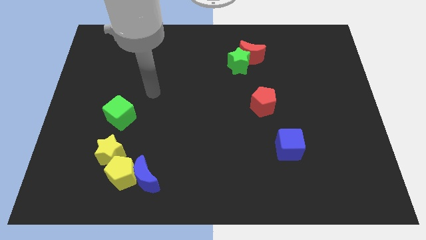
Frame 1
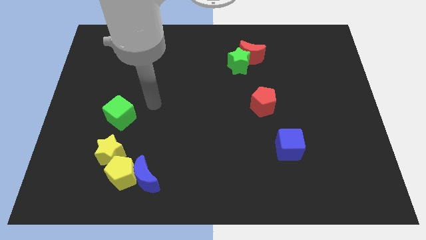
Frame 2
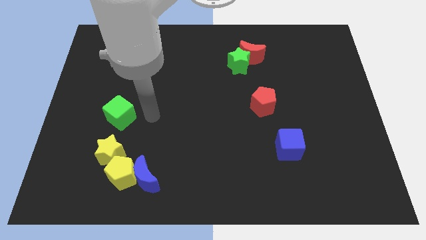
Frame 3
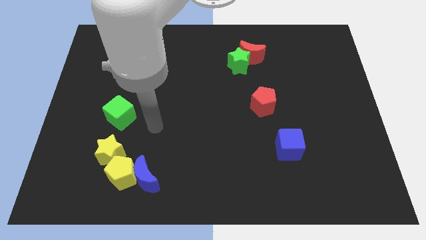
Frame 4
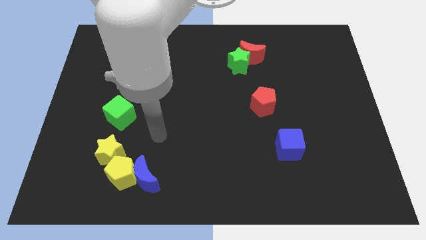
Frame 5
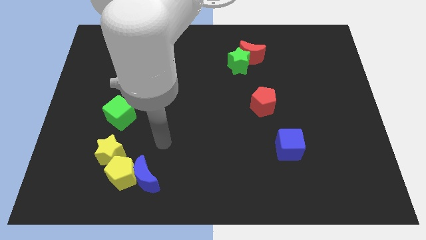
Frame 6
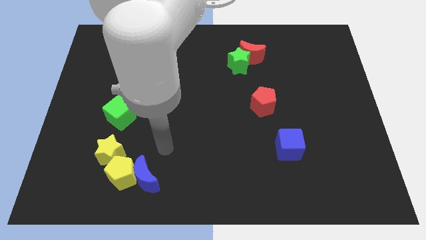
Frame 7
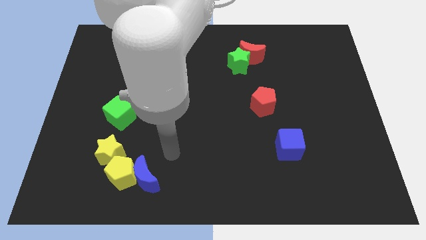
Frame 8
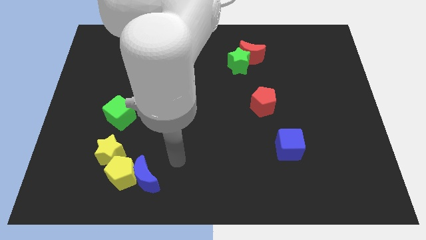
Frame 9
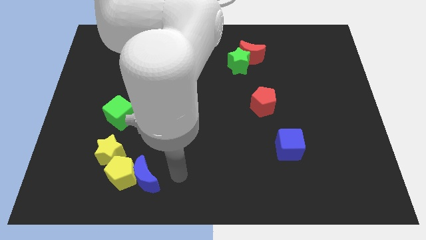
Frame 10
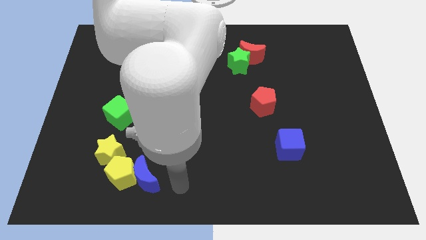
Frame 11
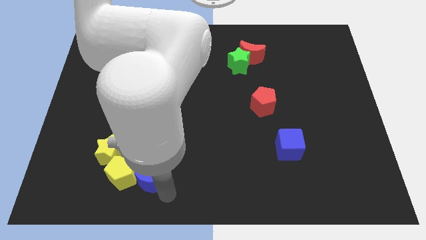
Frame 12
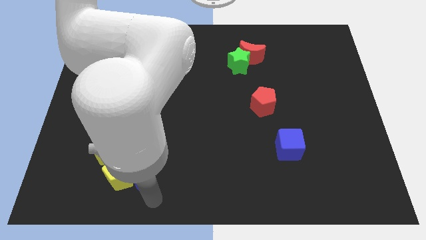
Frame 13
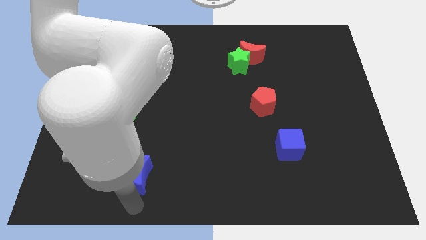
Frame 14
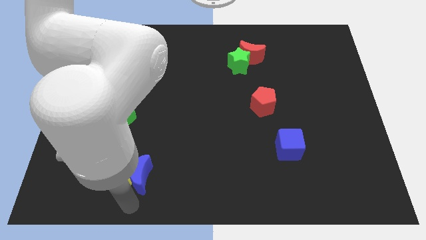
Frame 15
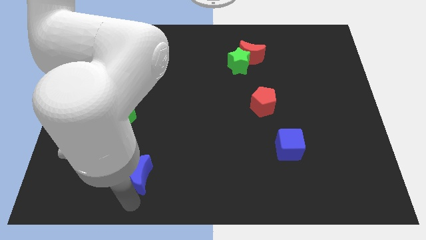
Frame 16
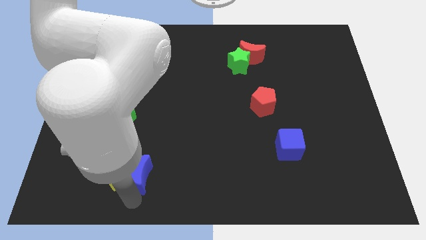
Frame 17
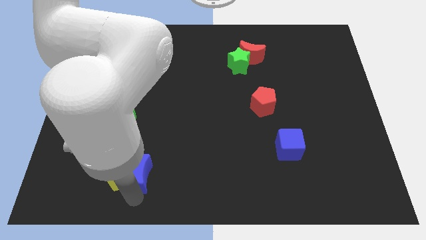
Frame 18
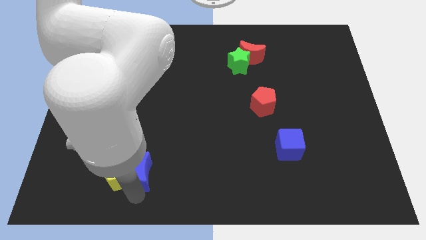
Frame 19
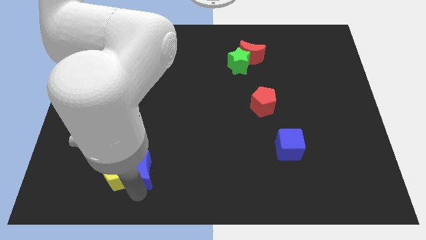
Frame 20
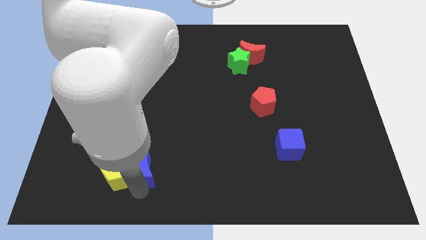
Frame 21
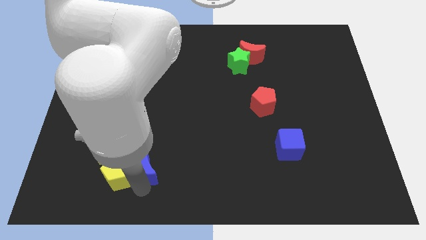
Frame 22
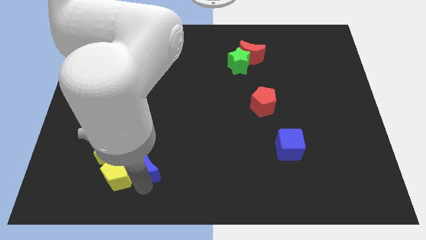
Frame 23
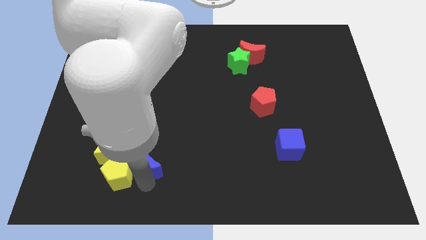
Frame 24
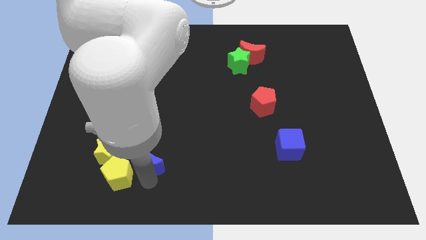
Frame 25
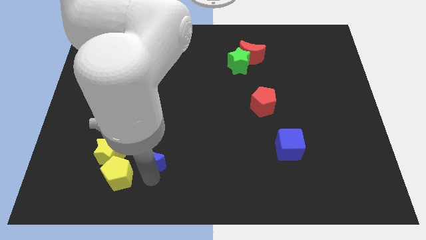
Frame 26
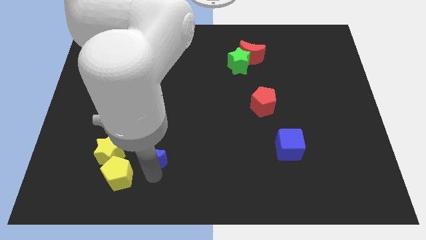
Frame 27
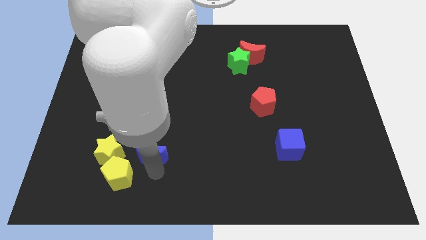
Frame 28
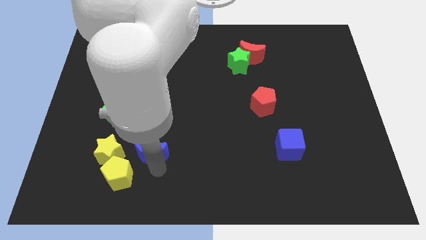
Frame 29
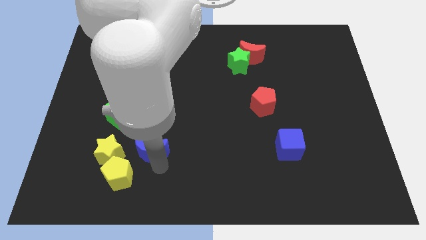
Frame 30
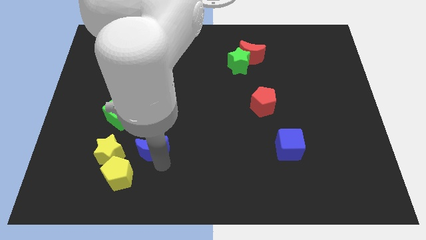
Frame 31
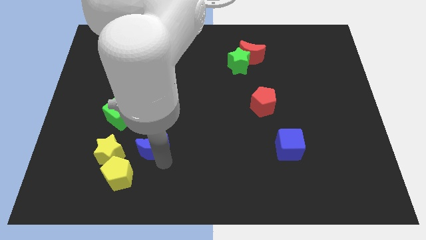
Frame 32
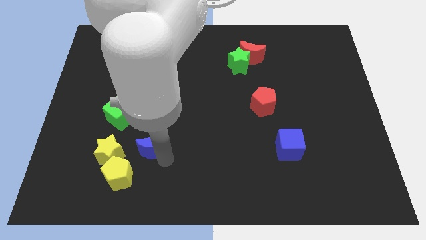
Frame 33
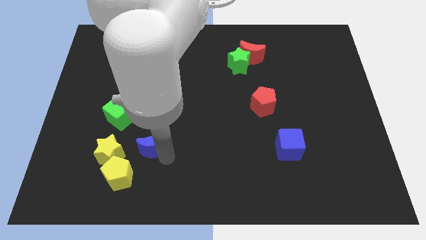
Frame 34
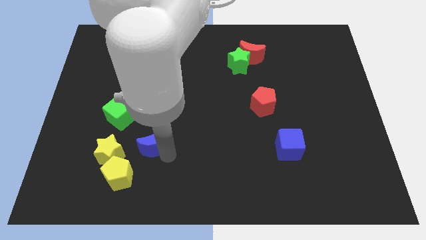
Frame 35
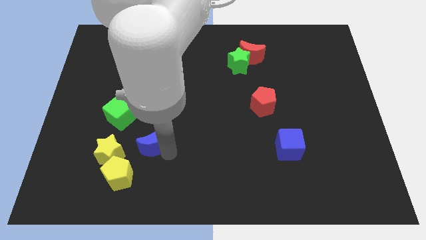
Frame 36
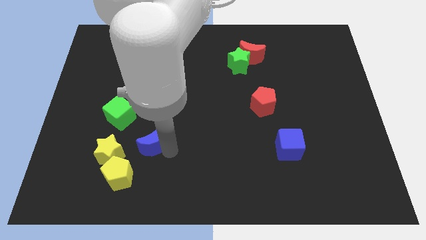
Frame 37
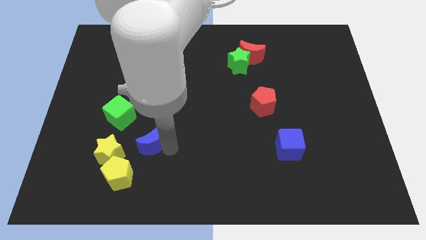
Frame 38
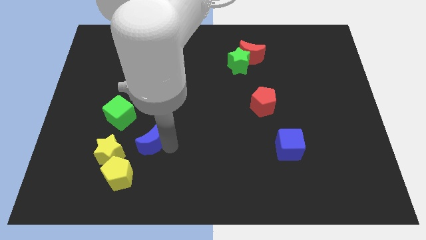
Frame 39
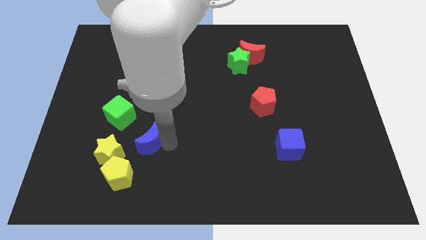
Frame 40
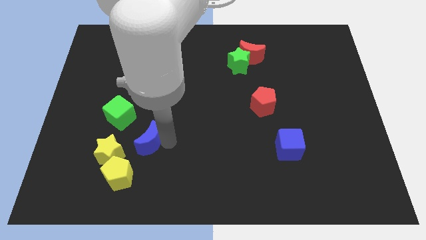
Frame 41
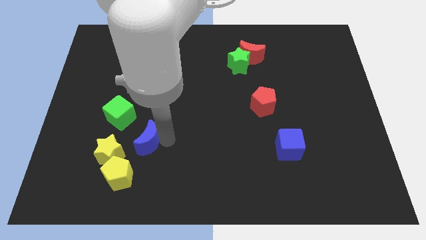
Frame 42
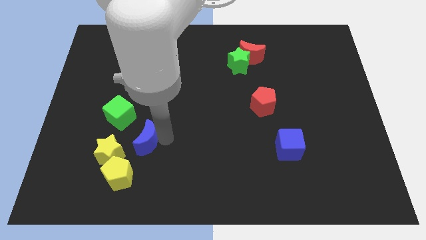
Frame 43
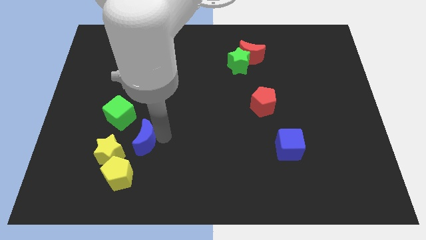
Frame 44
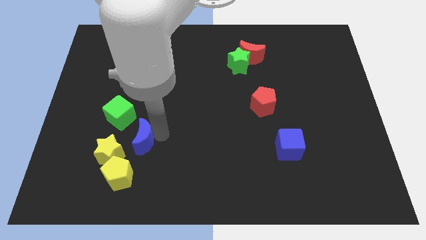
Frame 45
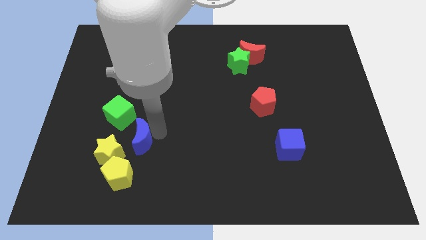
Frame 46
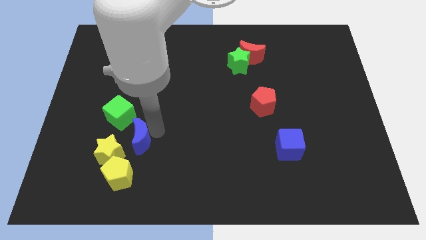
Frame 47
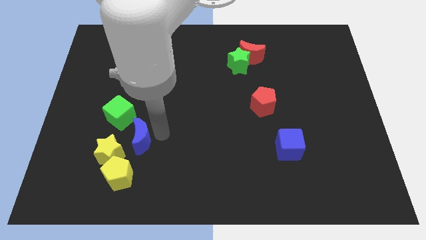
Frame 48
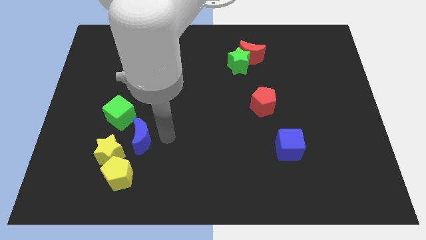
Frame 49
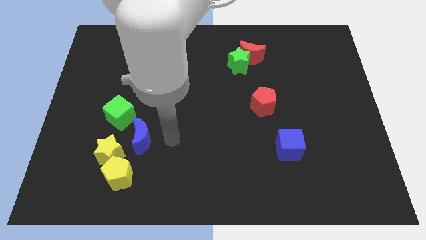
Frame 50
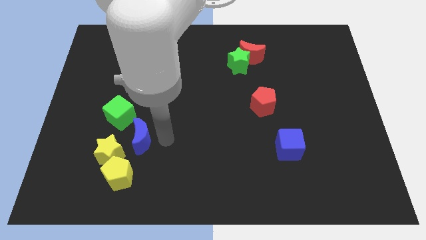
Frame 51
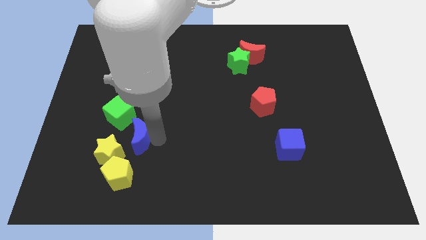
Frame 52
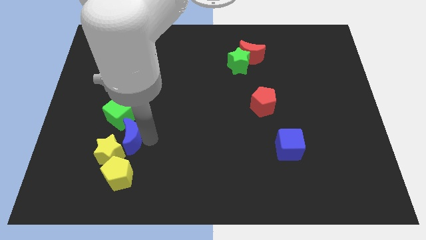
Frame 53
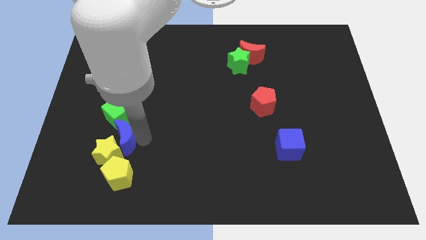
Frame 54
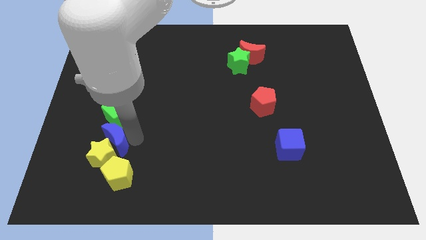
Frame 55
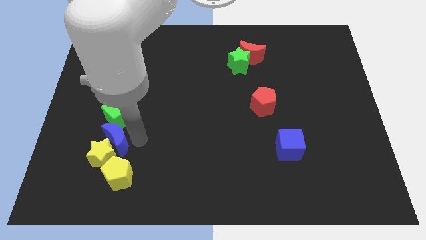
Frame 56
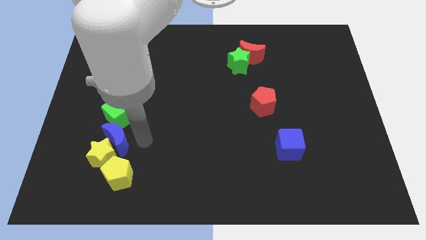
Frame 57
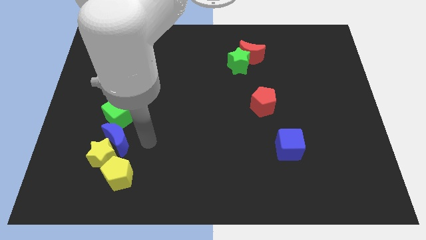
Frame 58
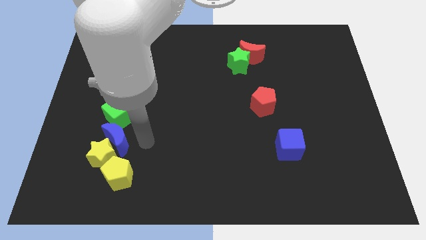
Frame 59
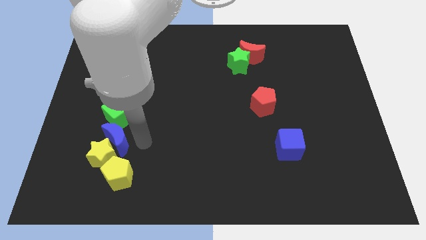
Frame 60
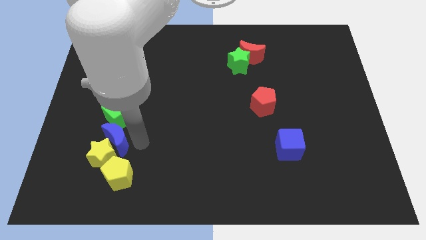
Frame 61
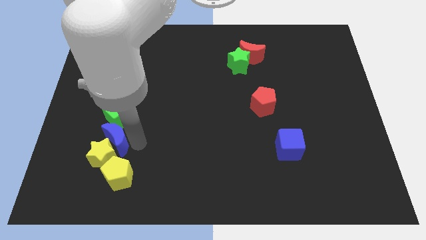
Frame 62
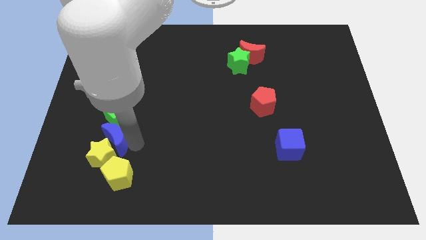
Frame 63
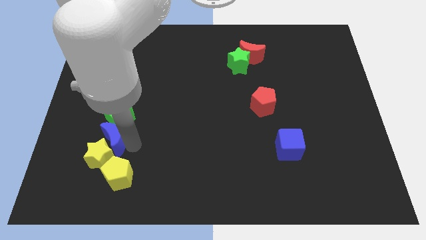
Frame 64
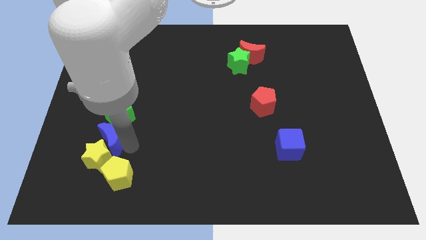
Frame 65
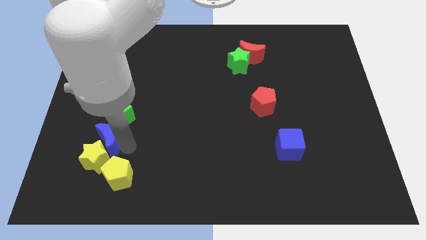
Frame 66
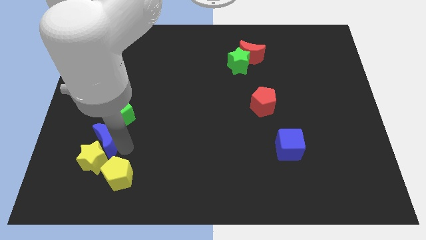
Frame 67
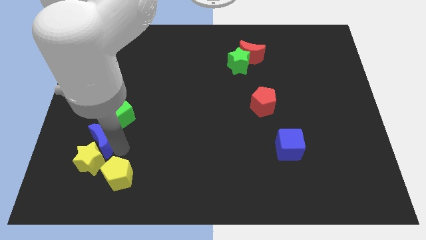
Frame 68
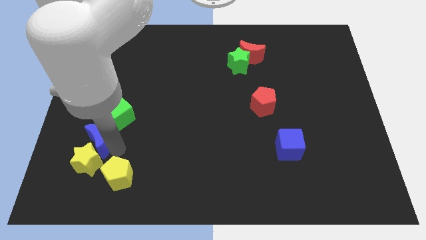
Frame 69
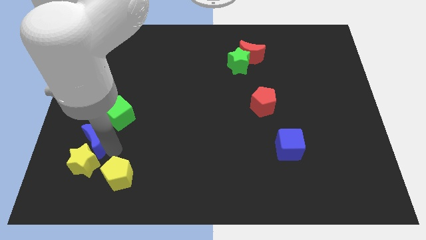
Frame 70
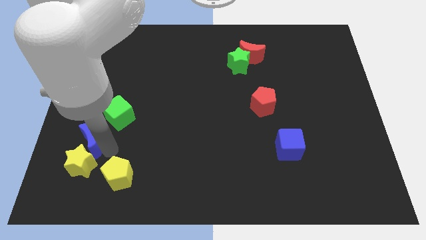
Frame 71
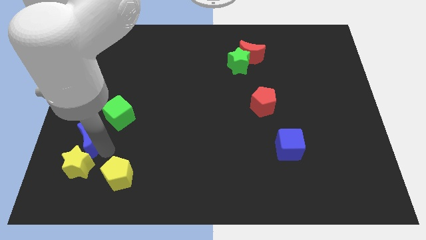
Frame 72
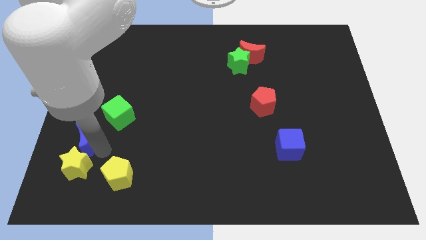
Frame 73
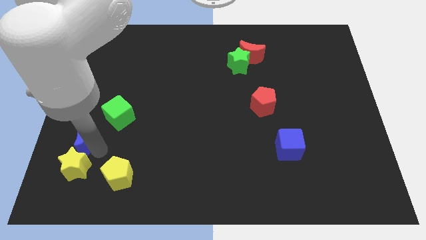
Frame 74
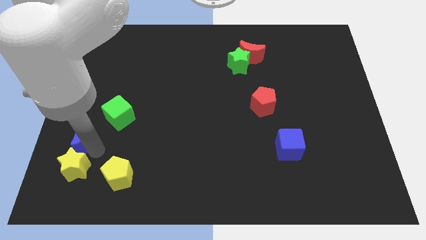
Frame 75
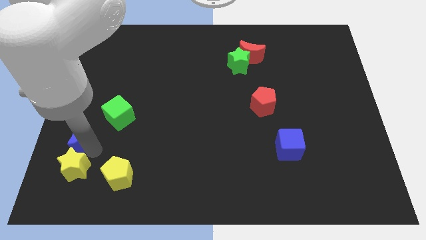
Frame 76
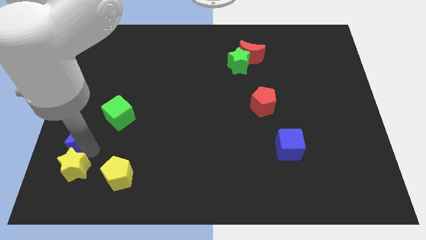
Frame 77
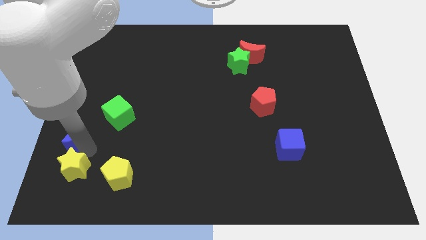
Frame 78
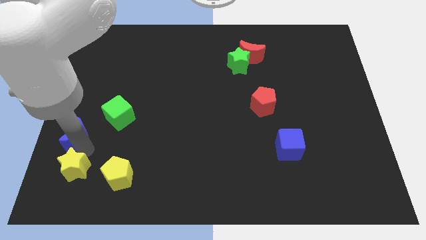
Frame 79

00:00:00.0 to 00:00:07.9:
move the blue moon to the center left

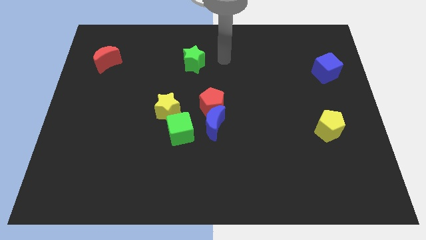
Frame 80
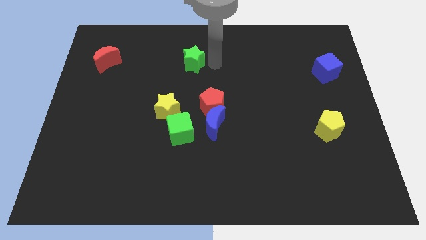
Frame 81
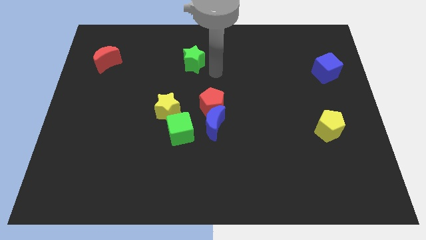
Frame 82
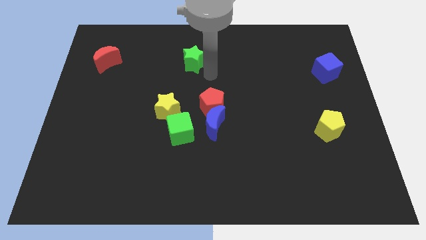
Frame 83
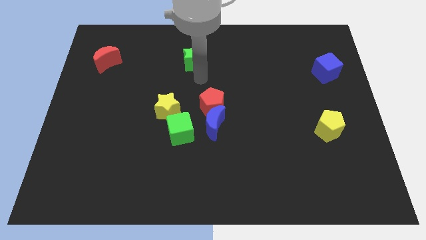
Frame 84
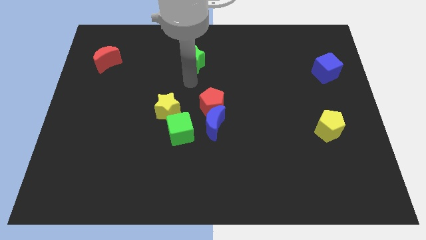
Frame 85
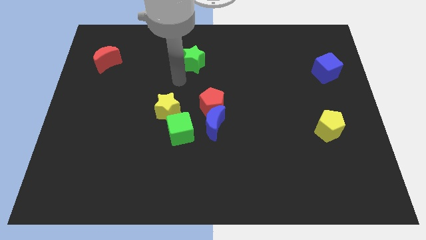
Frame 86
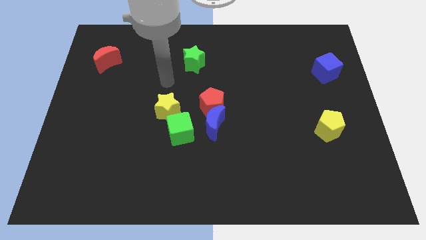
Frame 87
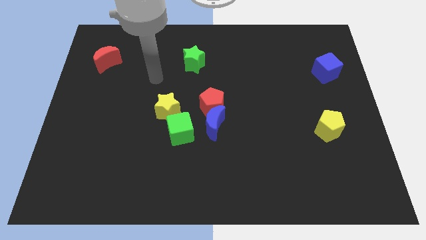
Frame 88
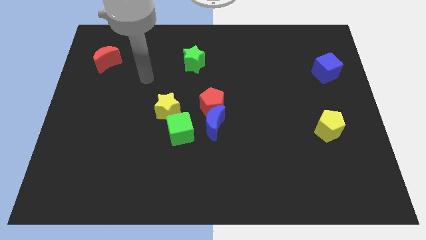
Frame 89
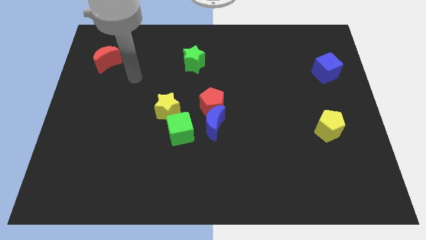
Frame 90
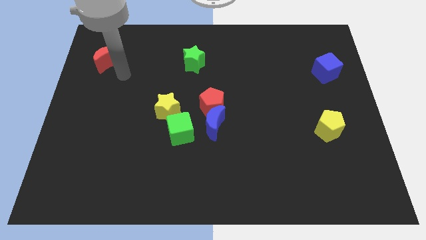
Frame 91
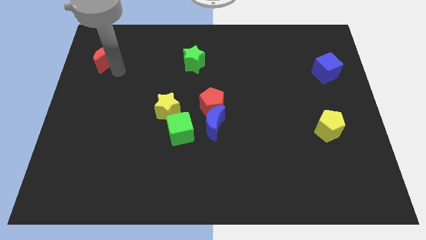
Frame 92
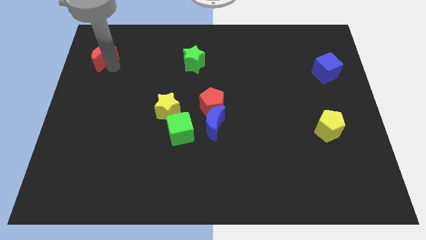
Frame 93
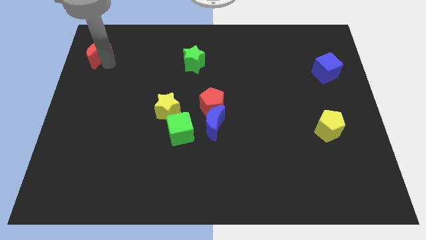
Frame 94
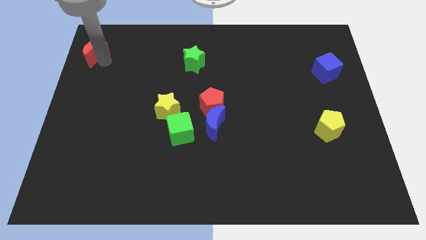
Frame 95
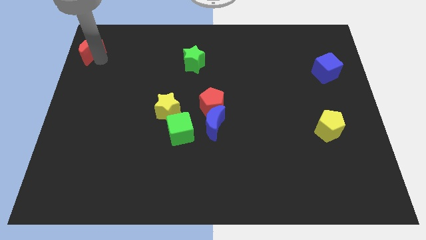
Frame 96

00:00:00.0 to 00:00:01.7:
put the red moon to the upper left corner
